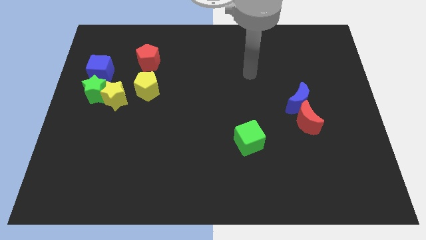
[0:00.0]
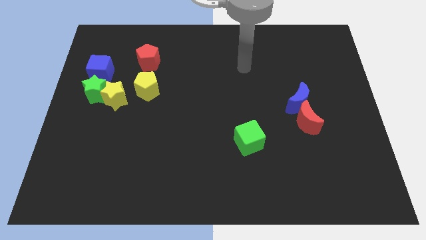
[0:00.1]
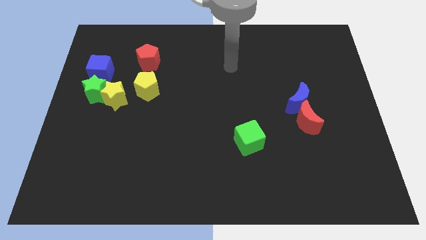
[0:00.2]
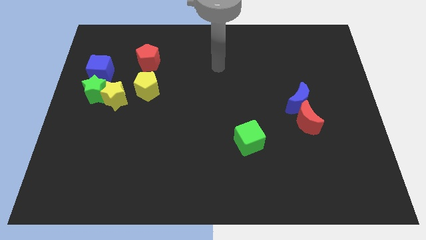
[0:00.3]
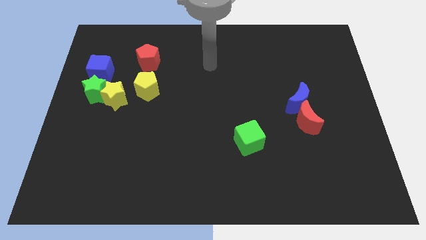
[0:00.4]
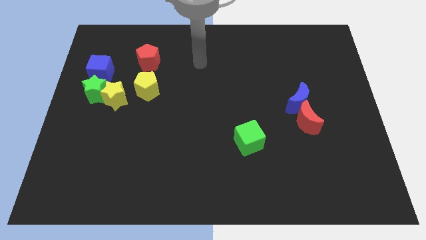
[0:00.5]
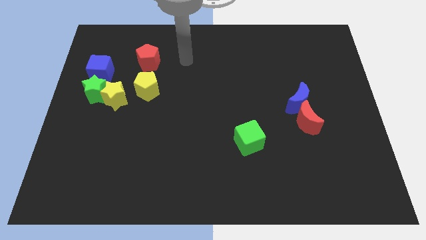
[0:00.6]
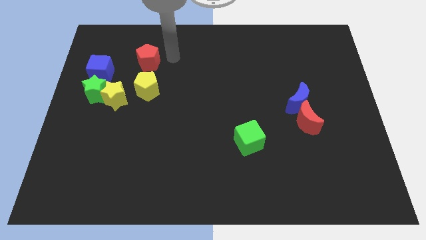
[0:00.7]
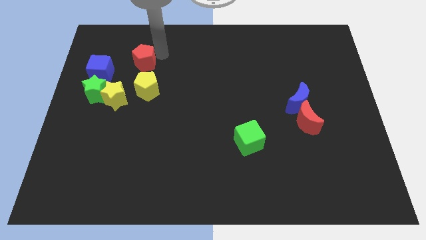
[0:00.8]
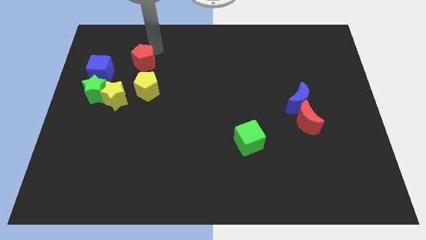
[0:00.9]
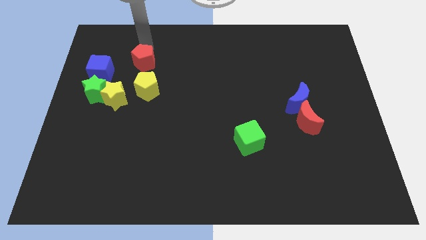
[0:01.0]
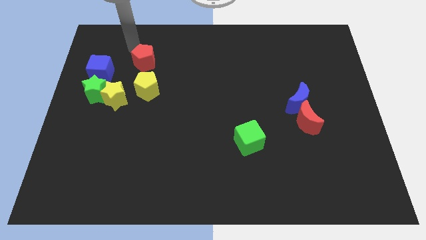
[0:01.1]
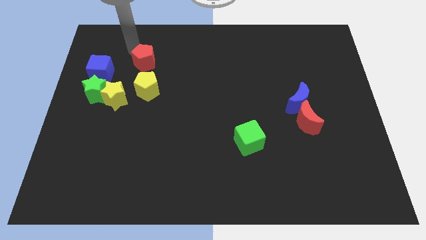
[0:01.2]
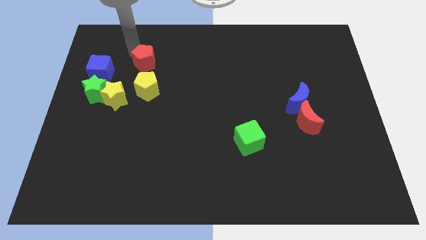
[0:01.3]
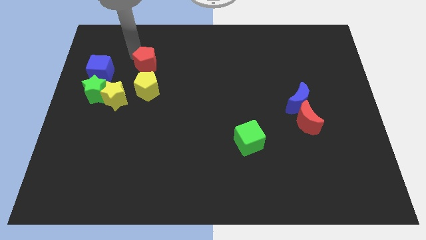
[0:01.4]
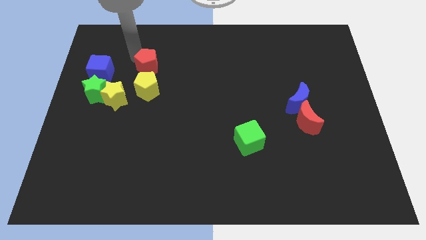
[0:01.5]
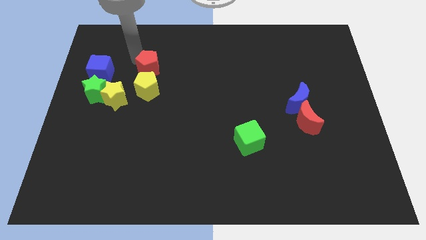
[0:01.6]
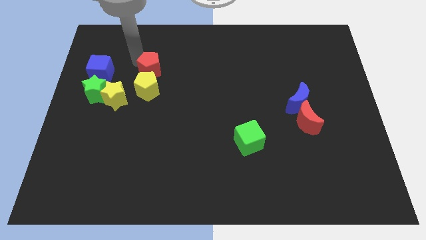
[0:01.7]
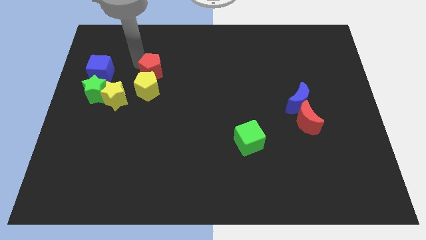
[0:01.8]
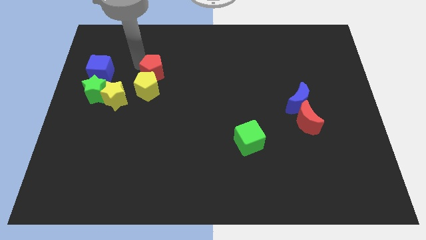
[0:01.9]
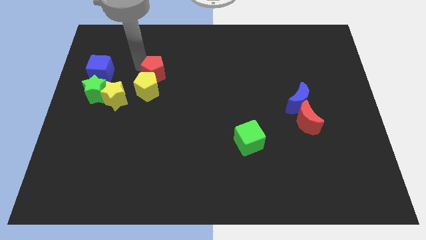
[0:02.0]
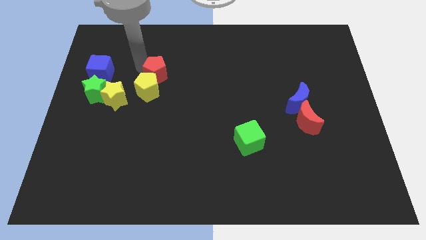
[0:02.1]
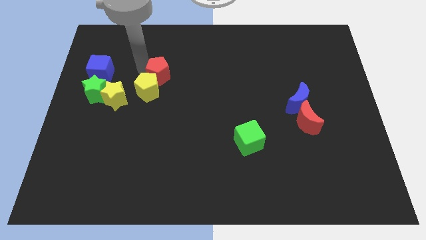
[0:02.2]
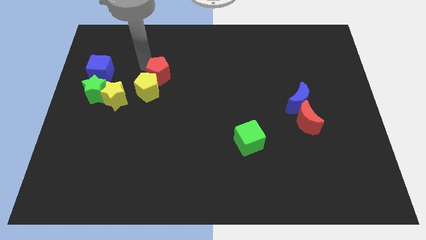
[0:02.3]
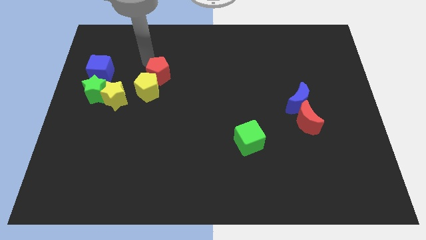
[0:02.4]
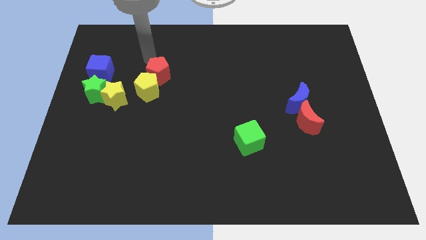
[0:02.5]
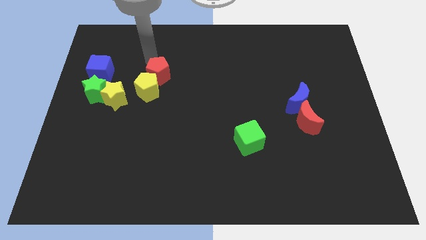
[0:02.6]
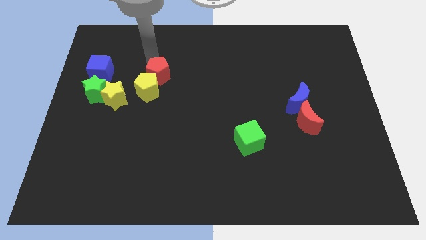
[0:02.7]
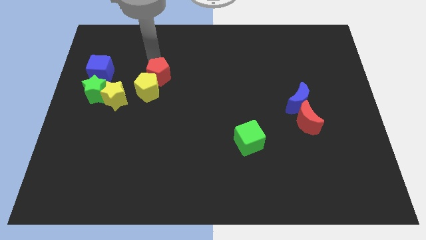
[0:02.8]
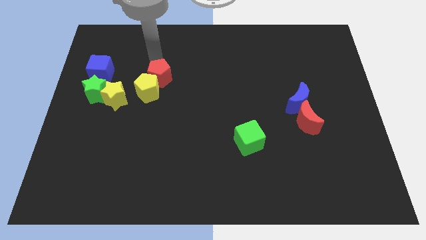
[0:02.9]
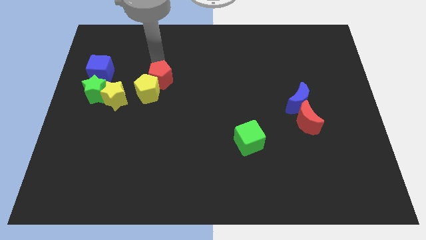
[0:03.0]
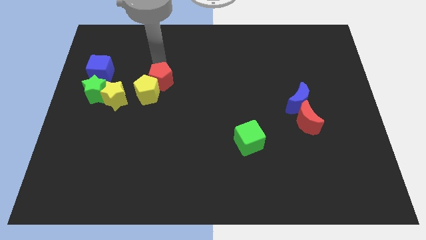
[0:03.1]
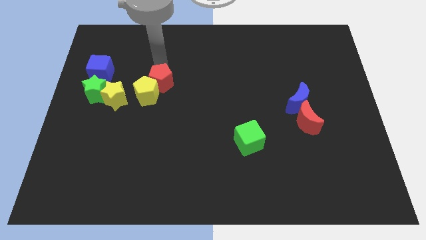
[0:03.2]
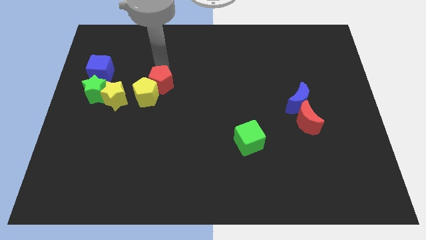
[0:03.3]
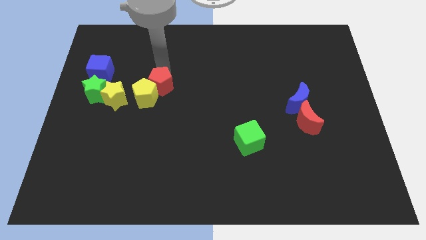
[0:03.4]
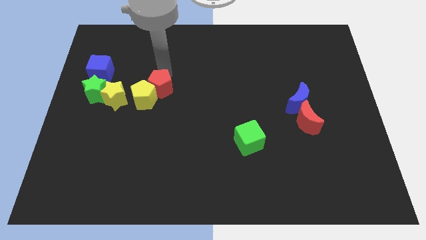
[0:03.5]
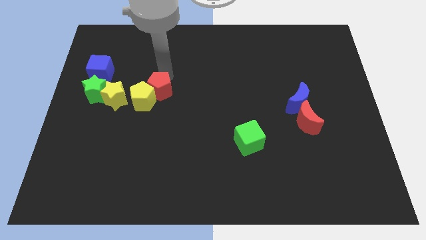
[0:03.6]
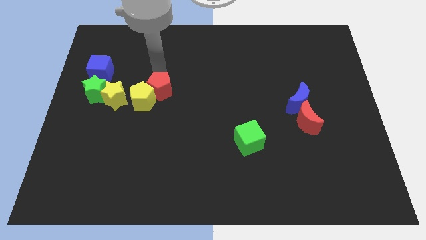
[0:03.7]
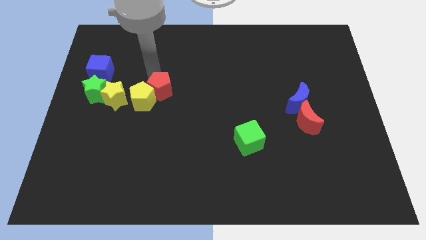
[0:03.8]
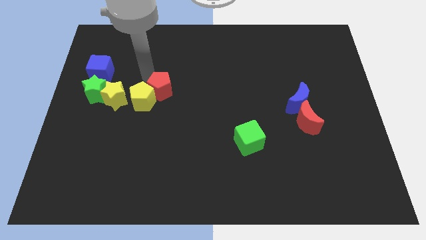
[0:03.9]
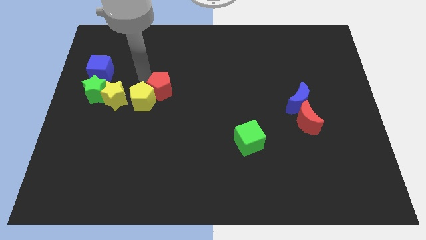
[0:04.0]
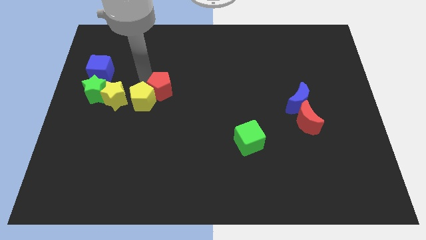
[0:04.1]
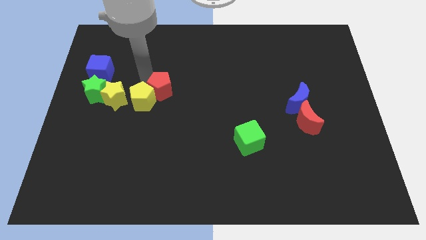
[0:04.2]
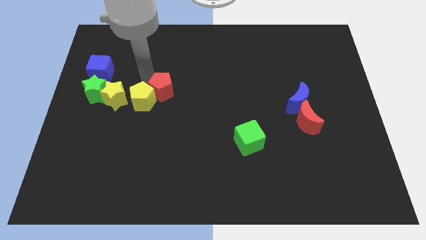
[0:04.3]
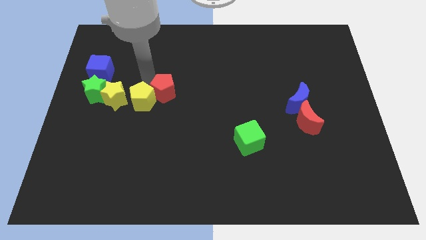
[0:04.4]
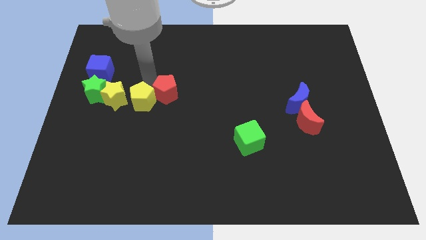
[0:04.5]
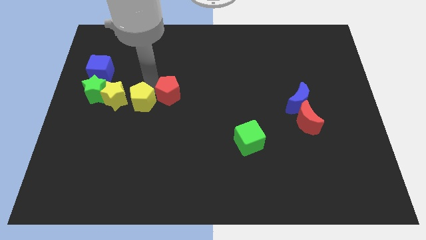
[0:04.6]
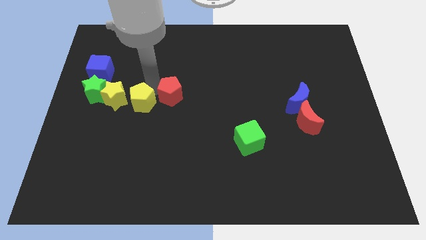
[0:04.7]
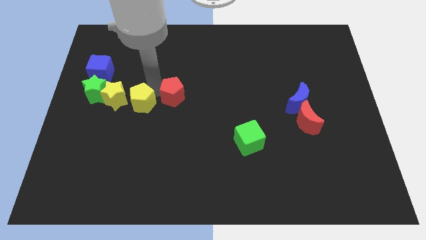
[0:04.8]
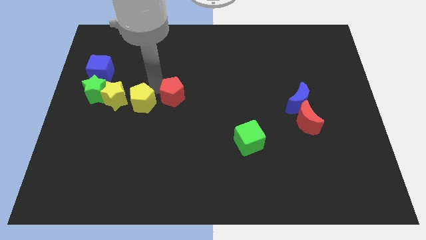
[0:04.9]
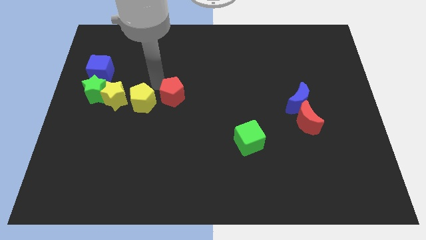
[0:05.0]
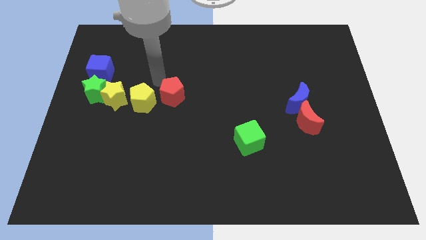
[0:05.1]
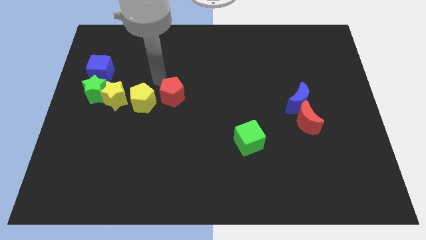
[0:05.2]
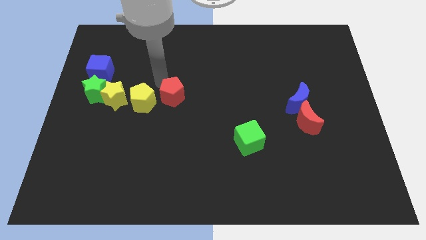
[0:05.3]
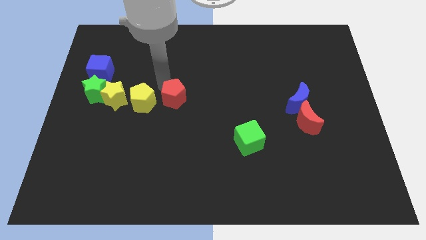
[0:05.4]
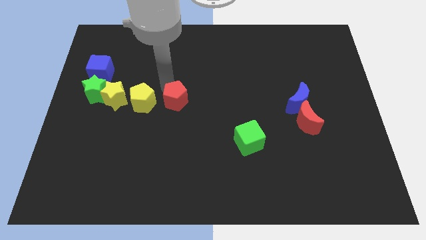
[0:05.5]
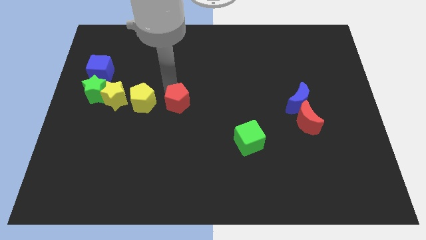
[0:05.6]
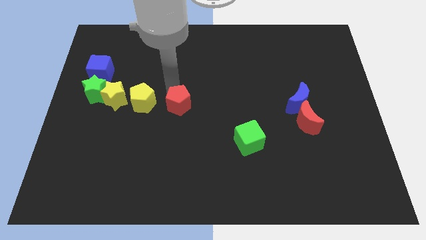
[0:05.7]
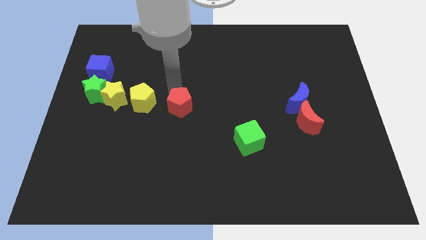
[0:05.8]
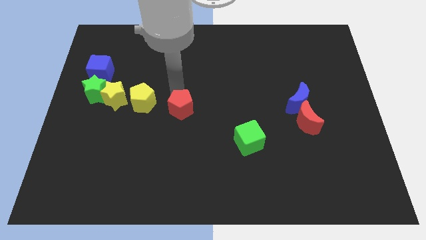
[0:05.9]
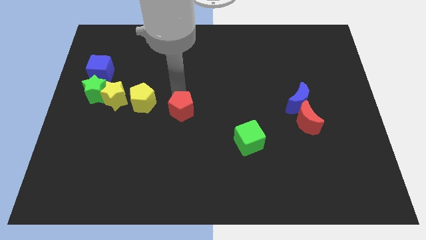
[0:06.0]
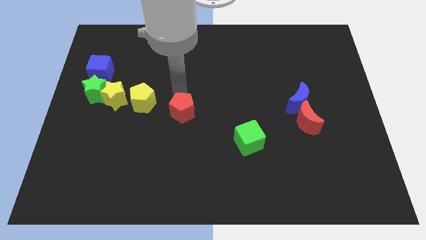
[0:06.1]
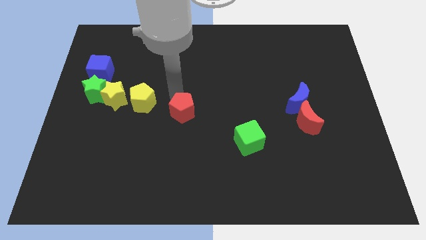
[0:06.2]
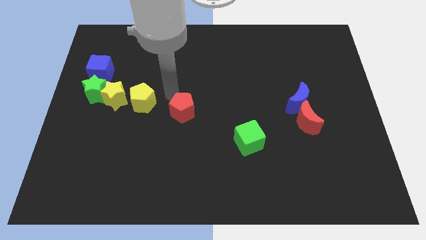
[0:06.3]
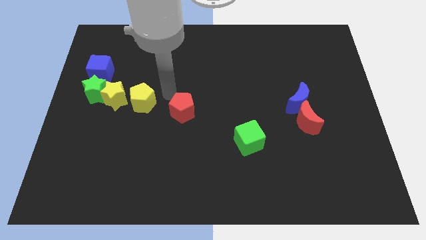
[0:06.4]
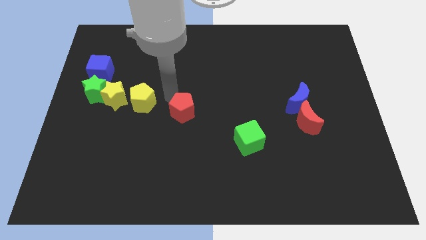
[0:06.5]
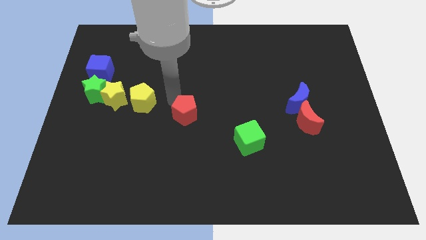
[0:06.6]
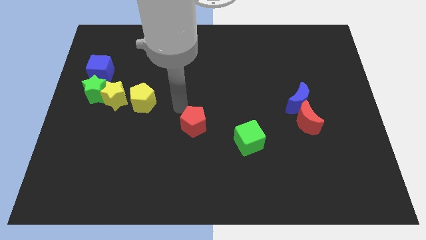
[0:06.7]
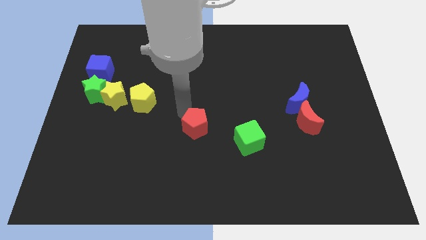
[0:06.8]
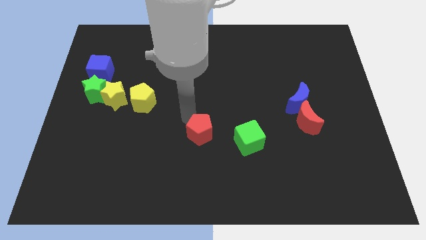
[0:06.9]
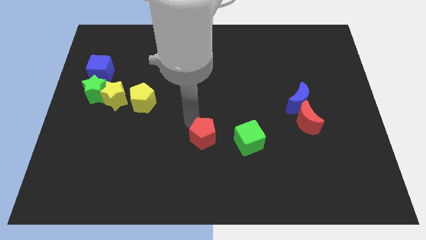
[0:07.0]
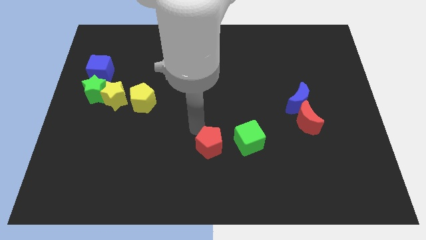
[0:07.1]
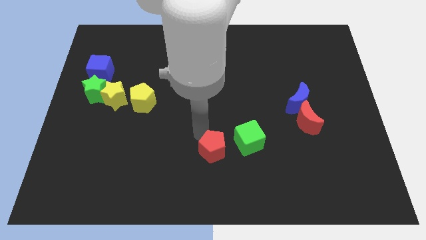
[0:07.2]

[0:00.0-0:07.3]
slide the red pentagon diagonally down and to the left of the green cube

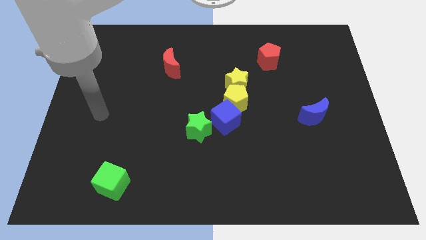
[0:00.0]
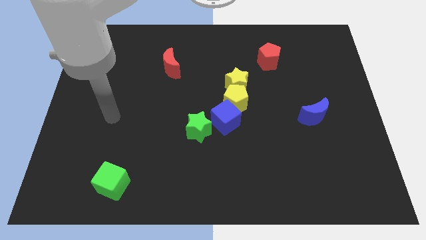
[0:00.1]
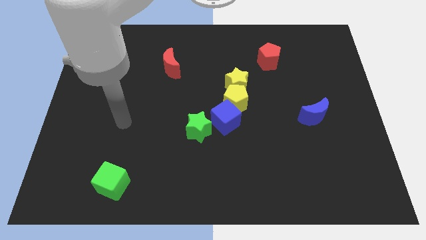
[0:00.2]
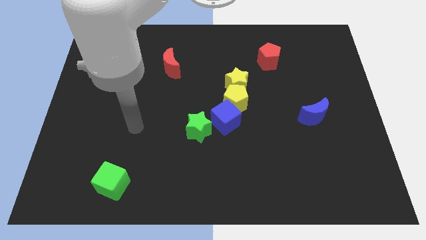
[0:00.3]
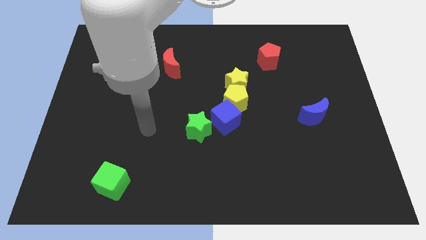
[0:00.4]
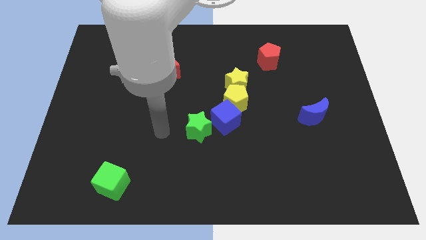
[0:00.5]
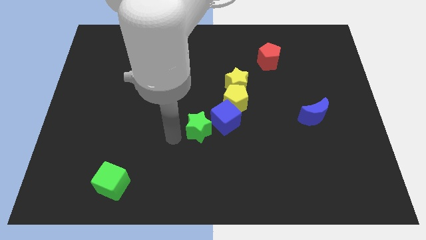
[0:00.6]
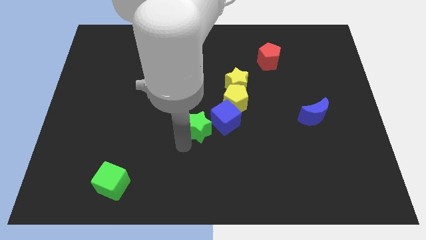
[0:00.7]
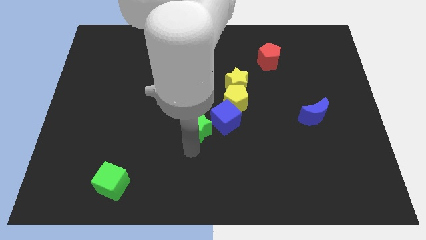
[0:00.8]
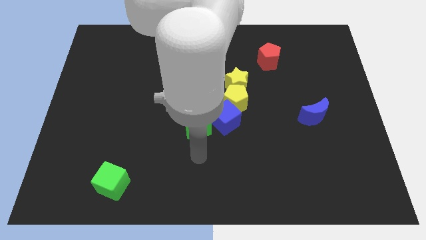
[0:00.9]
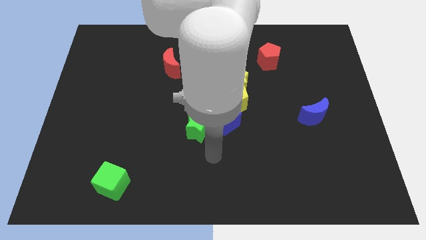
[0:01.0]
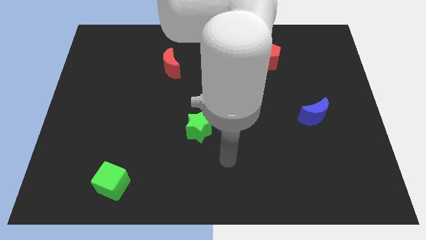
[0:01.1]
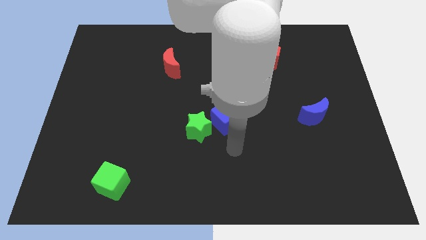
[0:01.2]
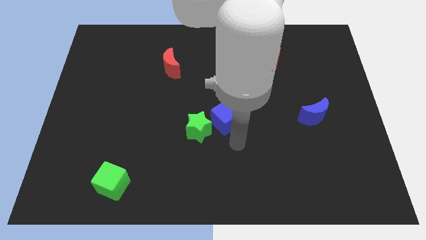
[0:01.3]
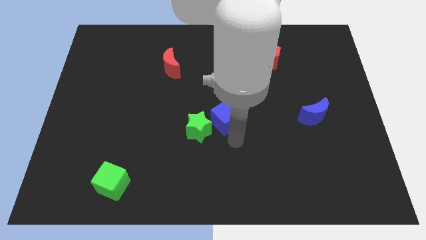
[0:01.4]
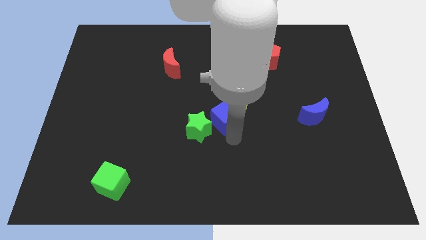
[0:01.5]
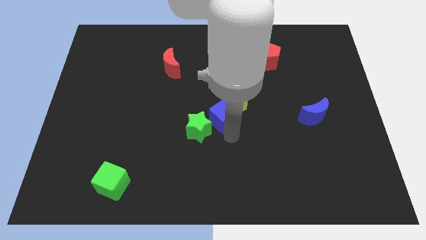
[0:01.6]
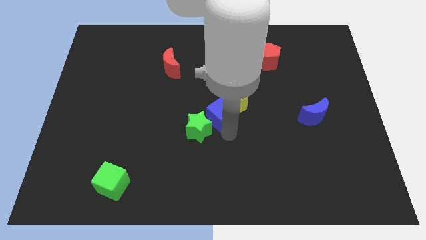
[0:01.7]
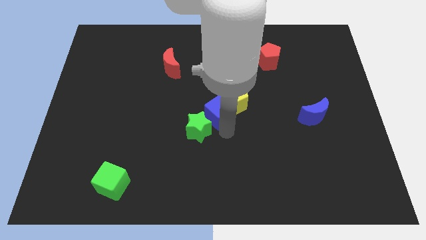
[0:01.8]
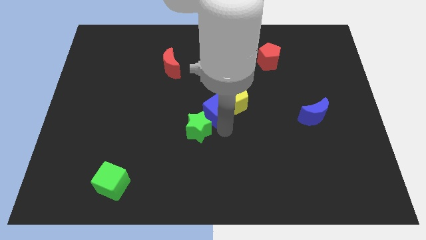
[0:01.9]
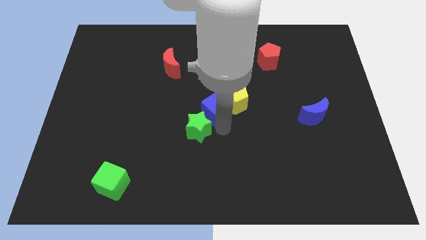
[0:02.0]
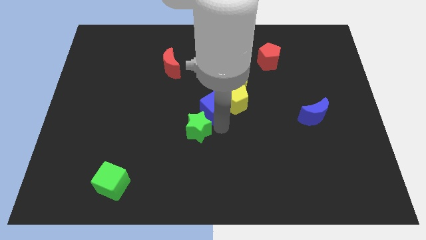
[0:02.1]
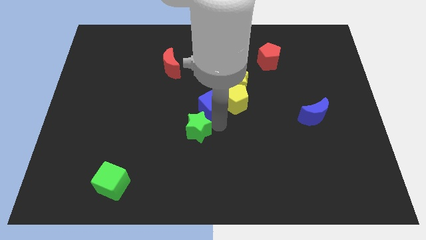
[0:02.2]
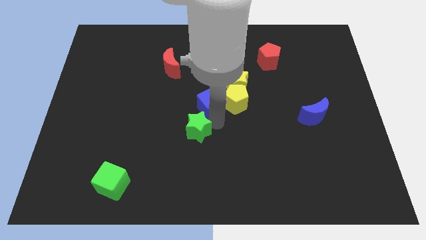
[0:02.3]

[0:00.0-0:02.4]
push the blue cube to the top left side of the yellow pentagon
